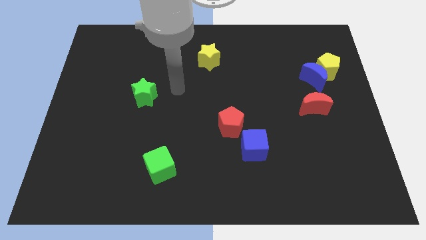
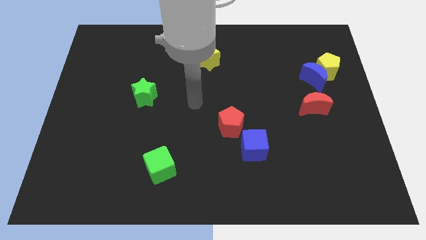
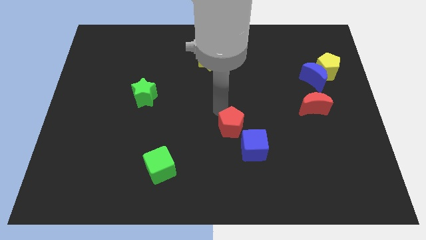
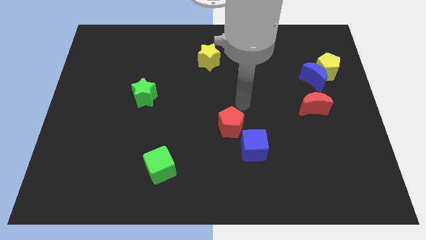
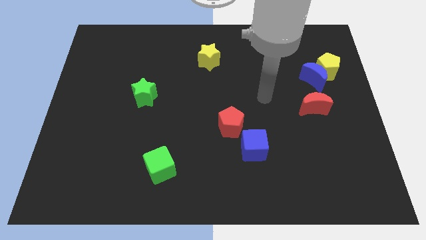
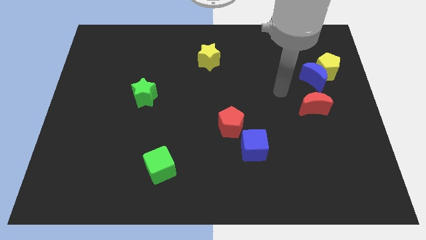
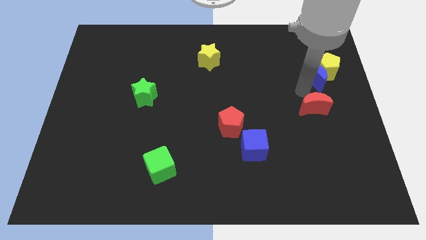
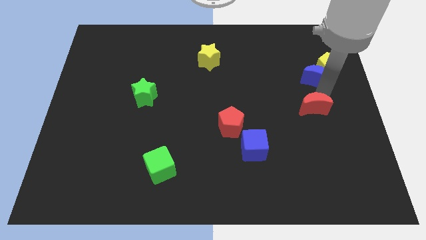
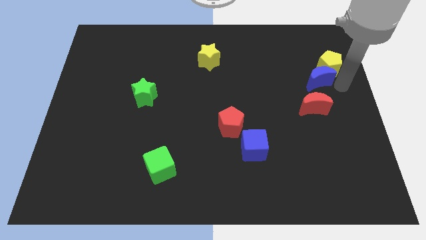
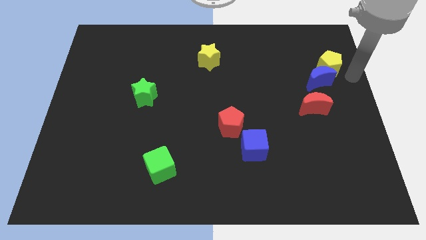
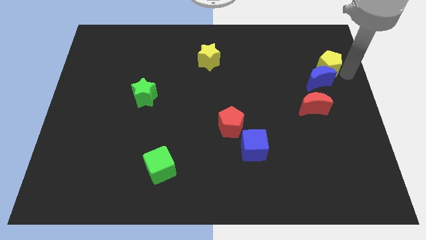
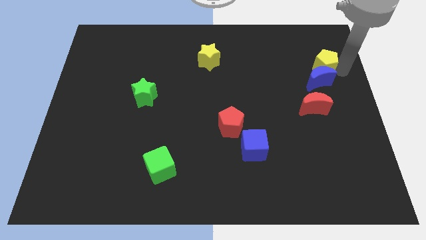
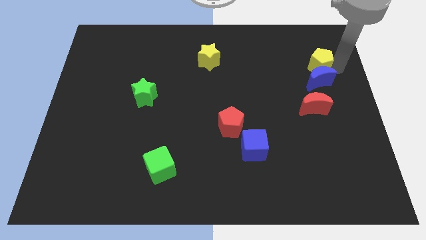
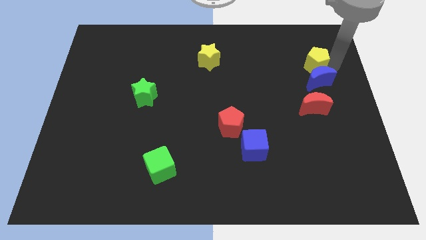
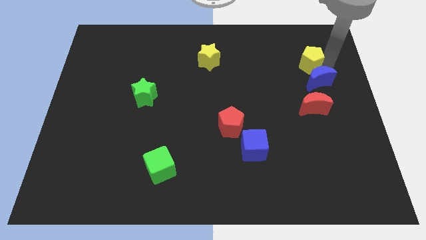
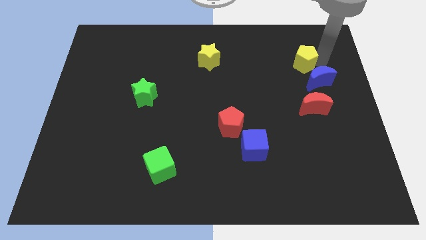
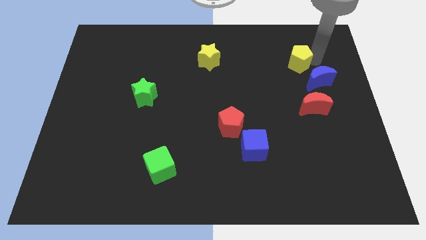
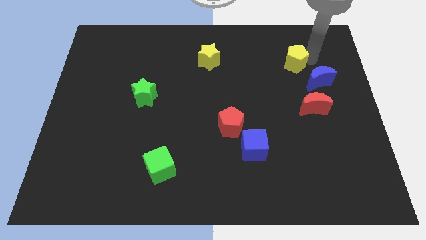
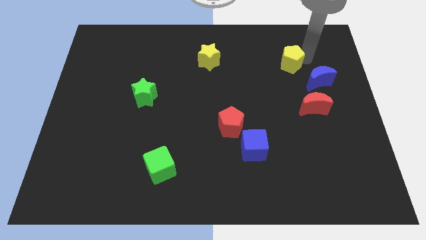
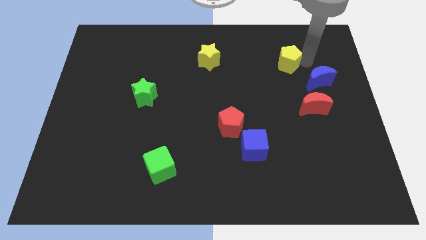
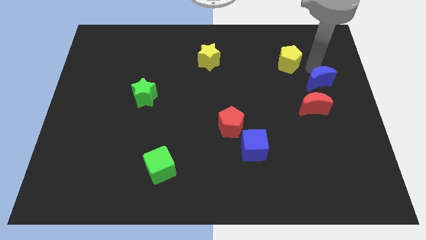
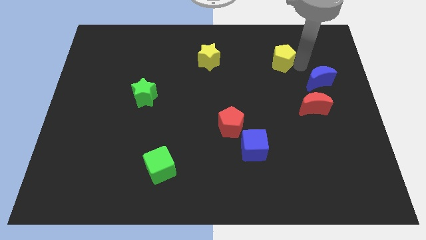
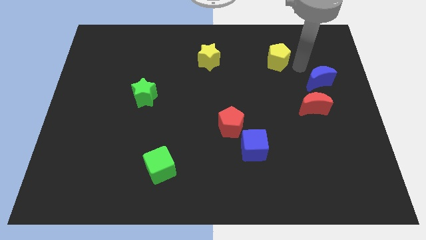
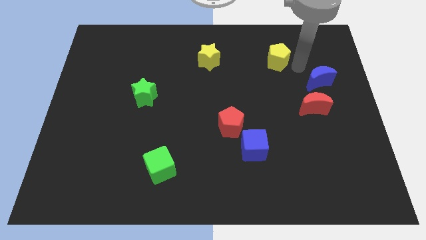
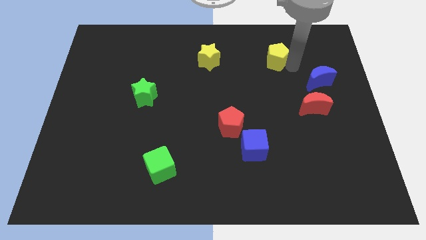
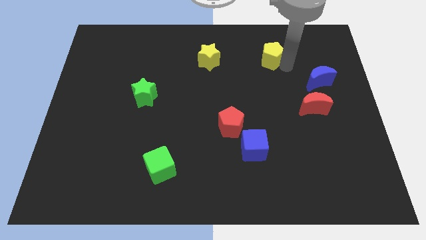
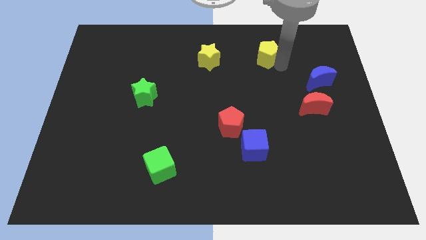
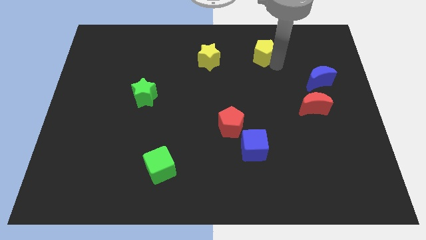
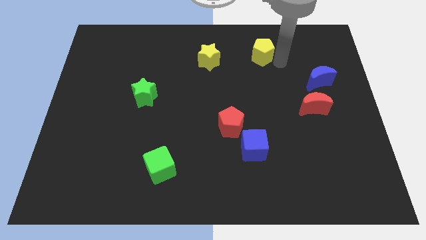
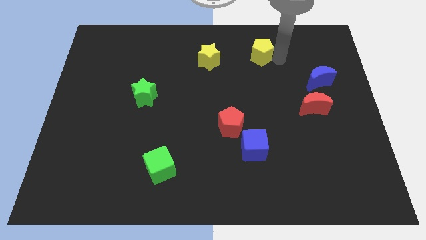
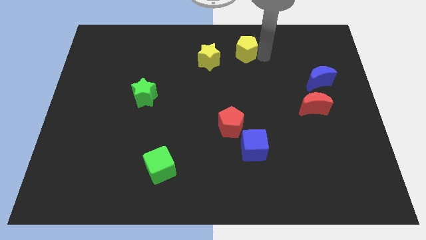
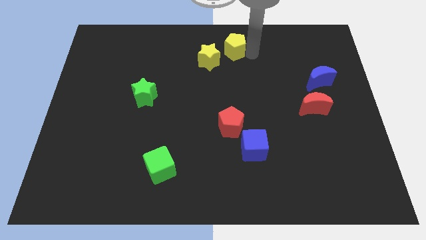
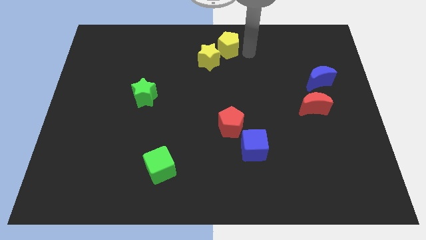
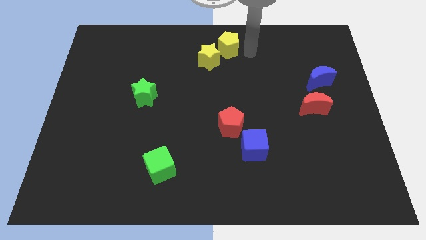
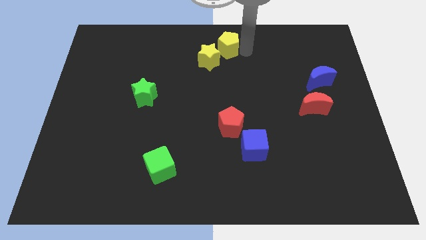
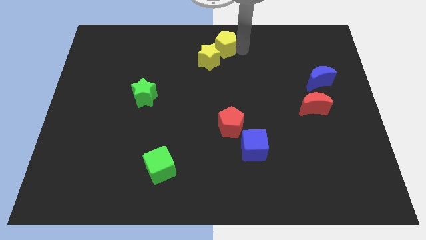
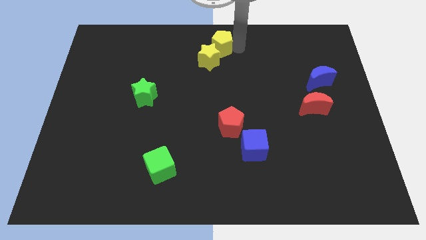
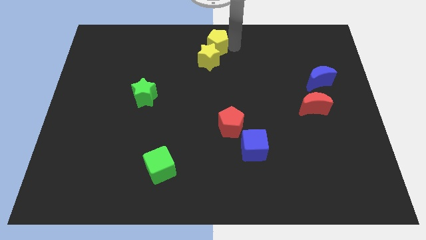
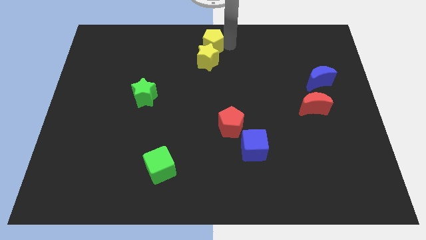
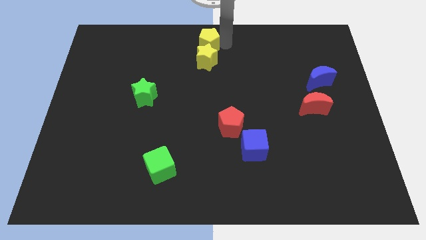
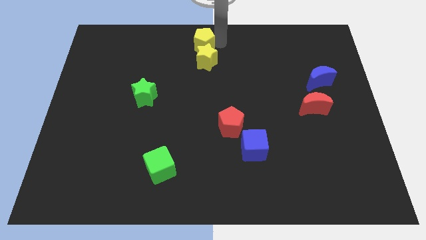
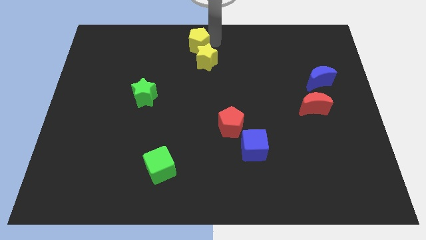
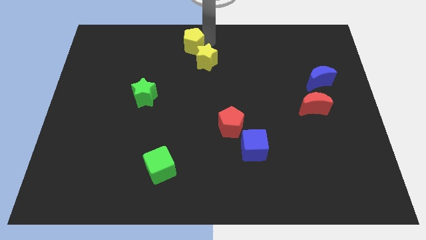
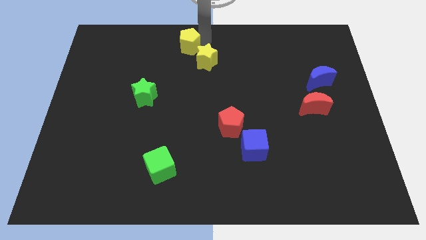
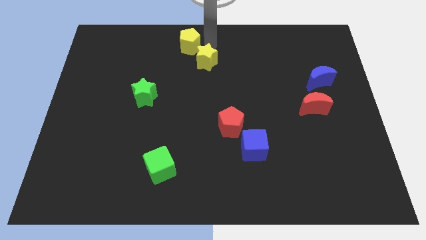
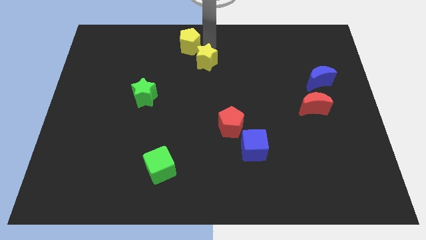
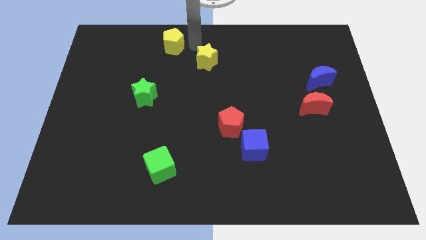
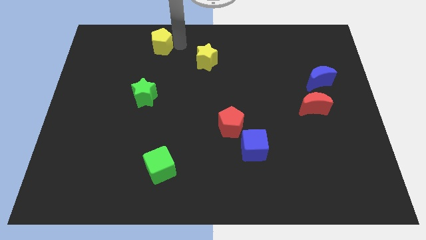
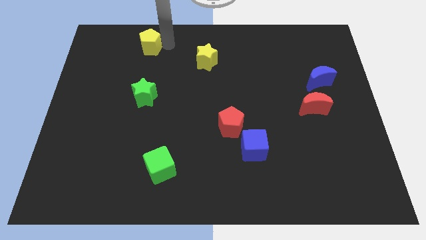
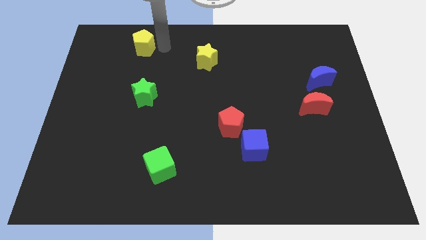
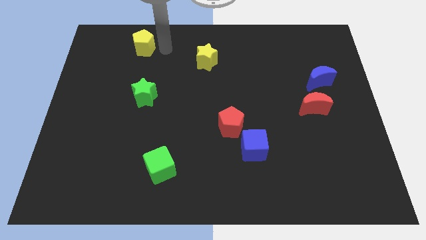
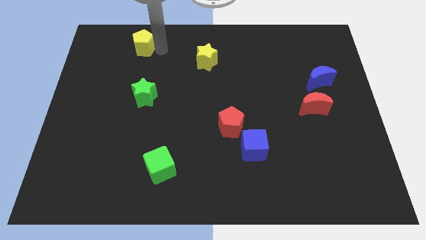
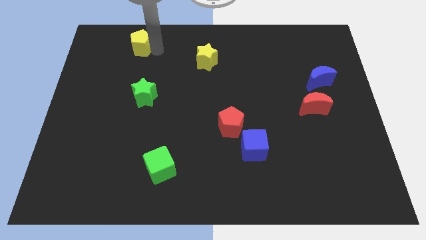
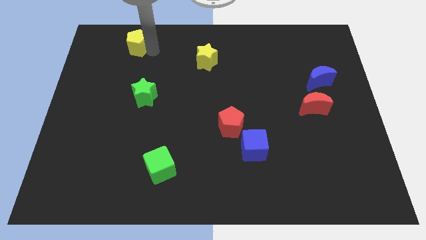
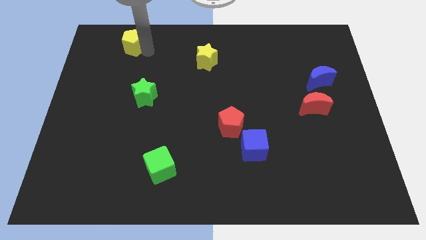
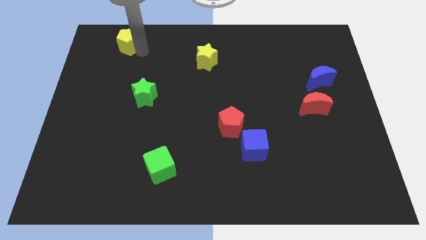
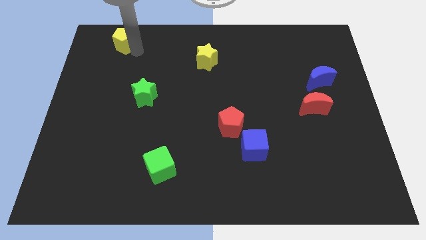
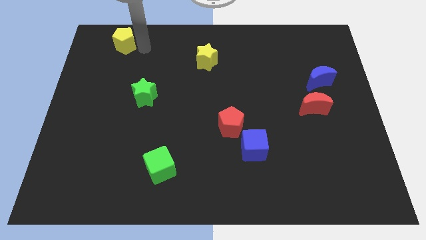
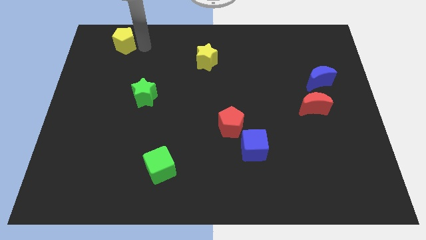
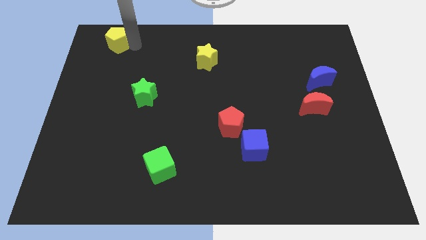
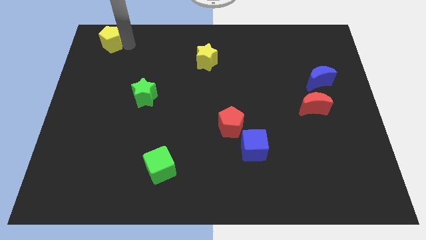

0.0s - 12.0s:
push the yellow pentagon to the top left corner

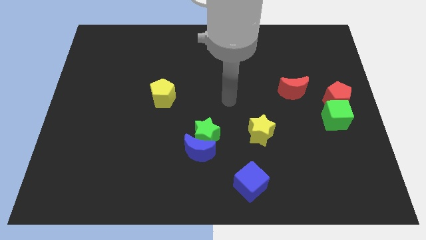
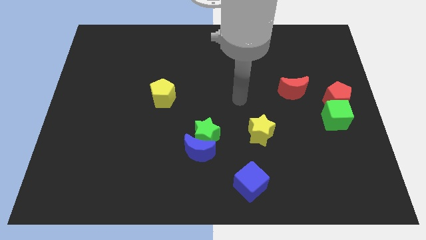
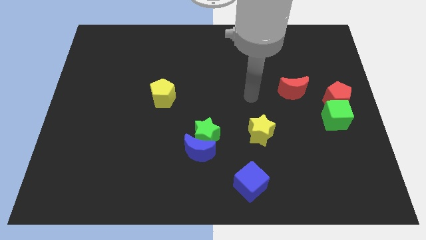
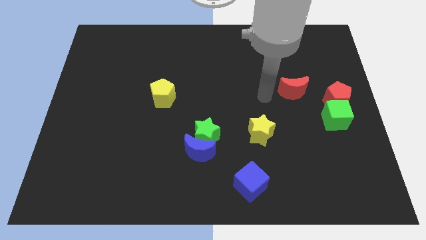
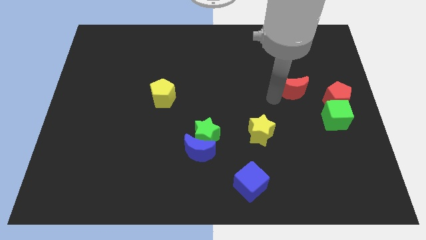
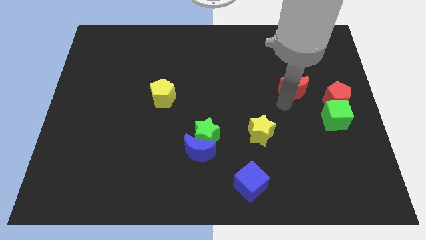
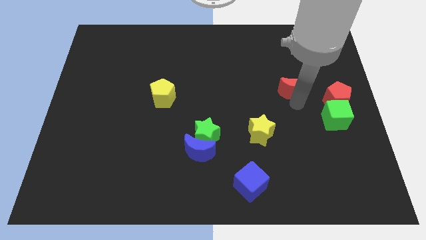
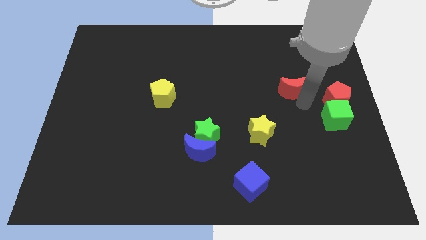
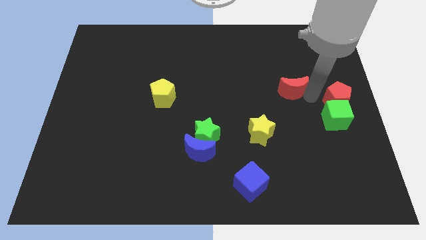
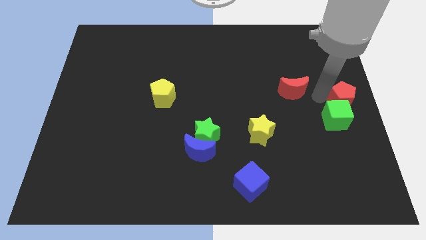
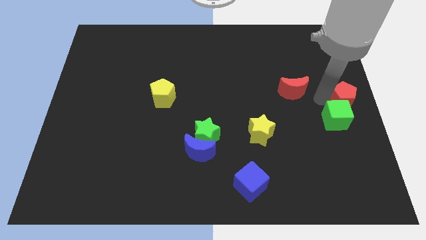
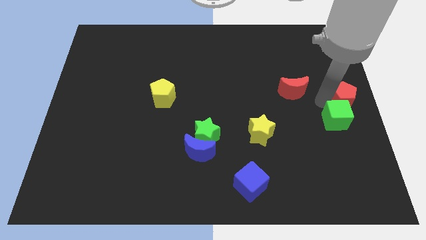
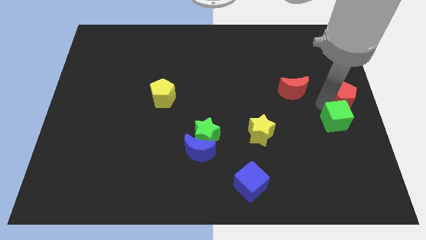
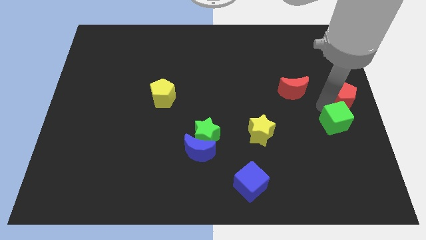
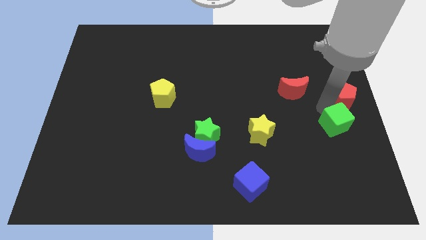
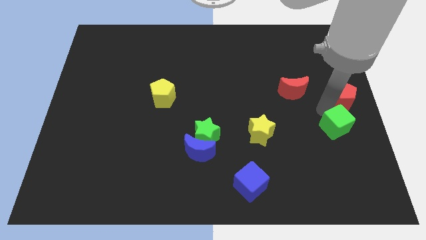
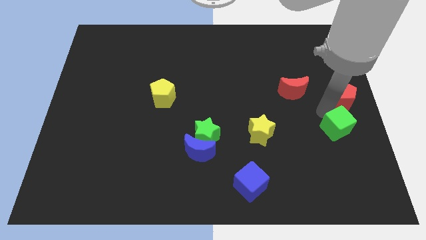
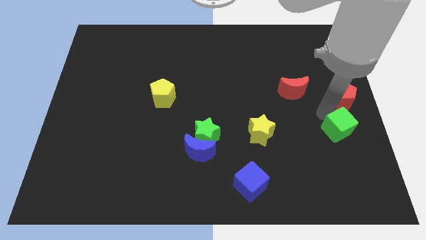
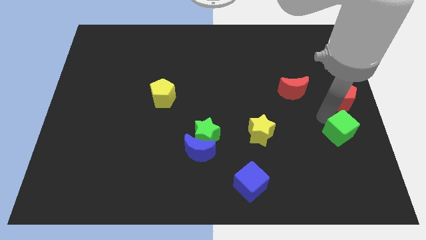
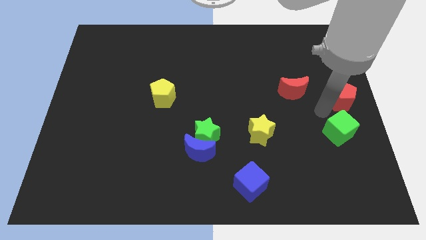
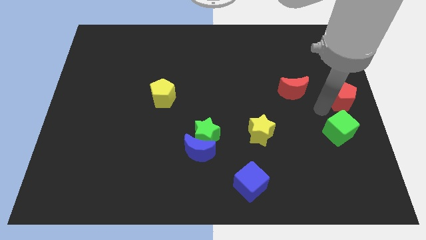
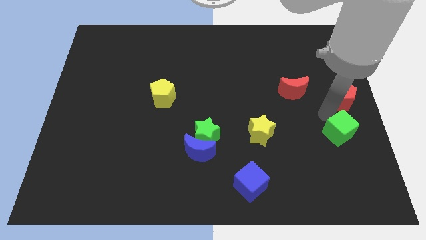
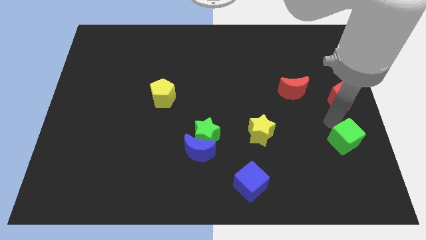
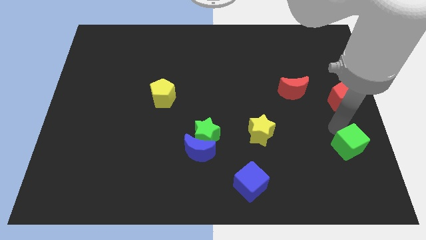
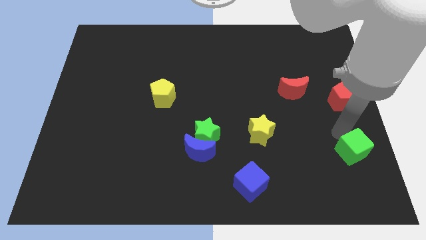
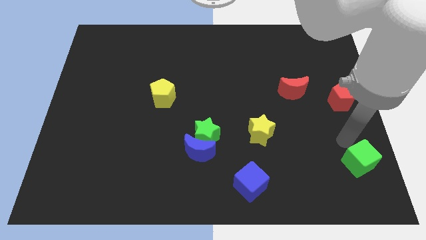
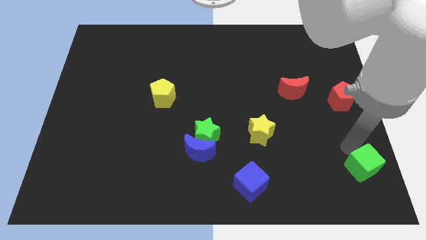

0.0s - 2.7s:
put the green cube to the bottom right corner
